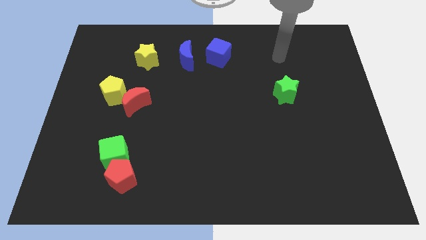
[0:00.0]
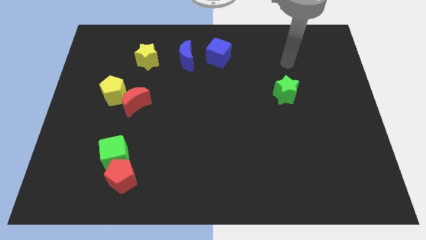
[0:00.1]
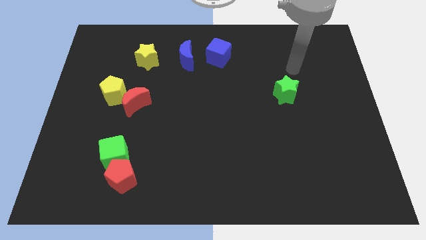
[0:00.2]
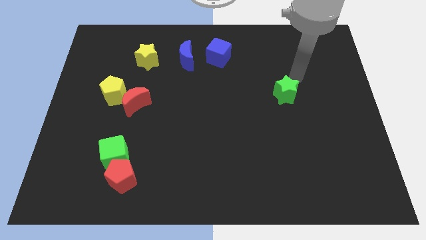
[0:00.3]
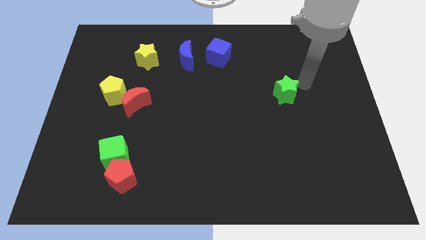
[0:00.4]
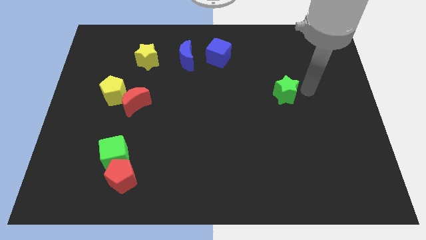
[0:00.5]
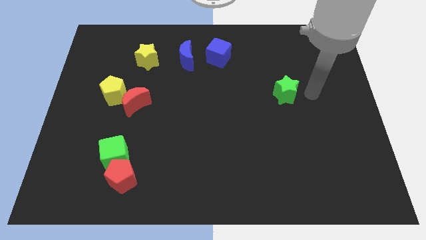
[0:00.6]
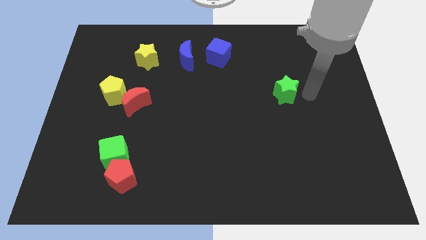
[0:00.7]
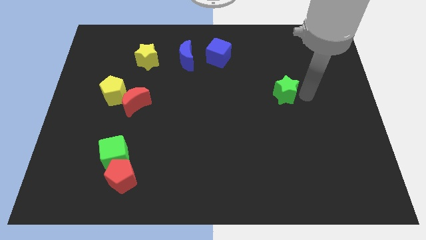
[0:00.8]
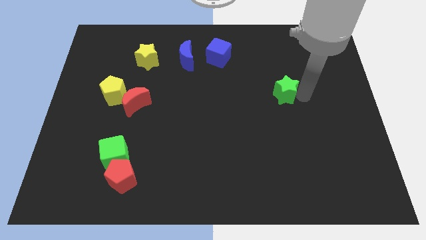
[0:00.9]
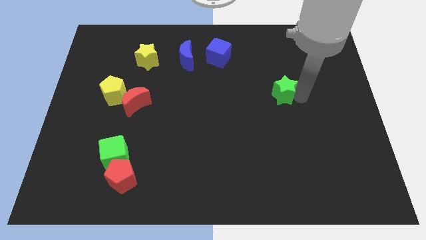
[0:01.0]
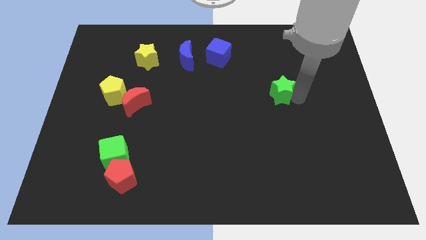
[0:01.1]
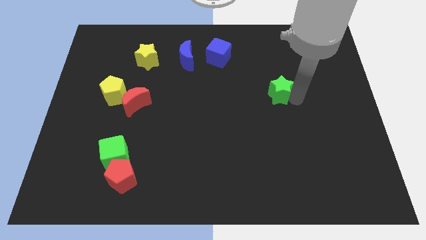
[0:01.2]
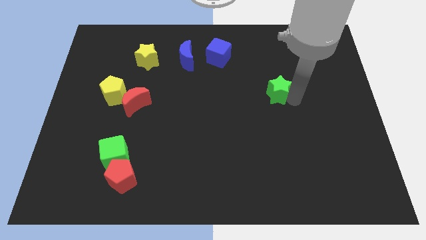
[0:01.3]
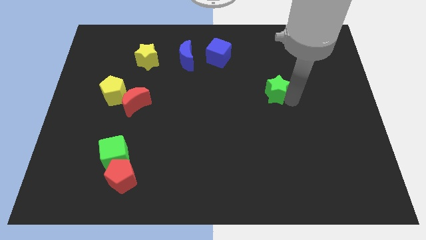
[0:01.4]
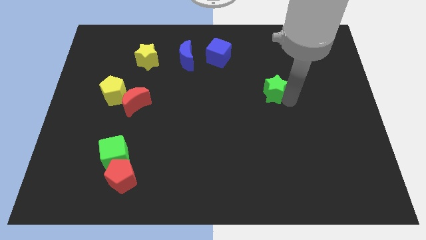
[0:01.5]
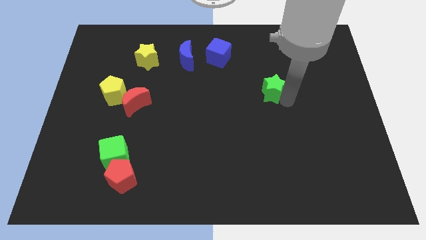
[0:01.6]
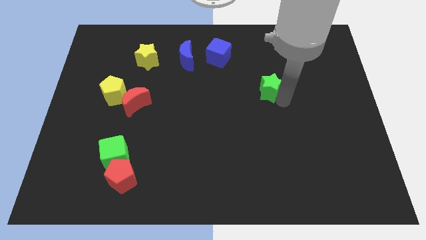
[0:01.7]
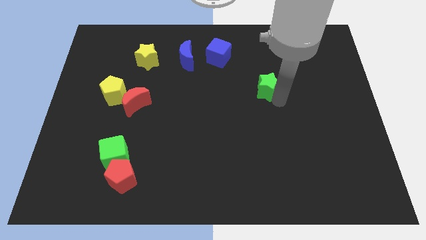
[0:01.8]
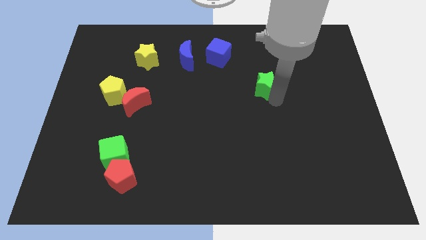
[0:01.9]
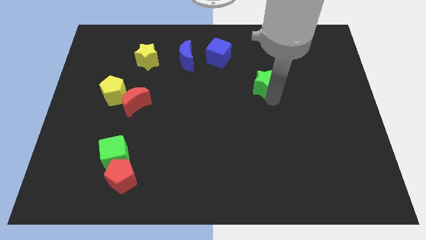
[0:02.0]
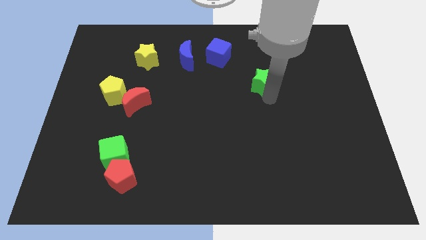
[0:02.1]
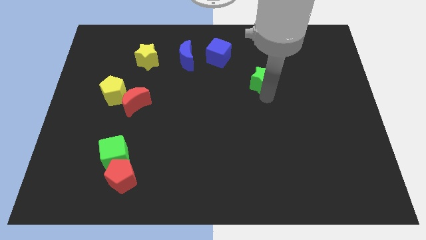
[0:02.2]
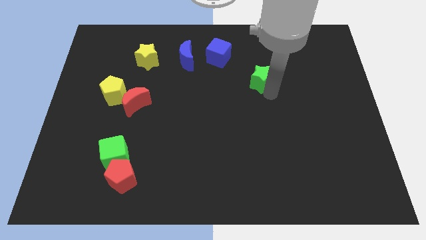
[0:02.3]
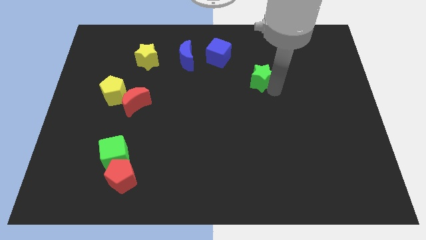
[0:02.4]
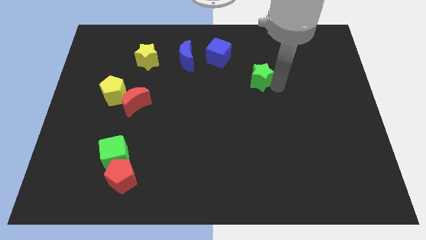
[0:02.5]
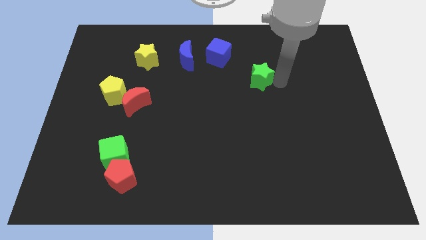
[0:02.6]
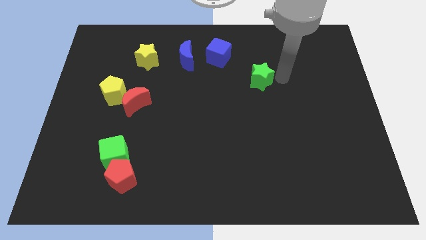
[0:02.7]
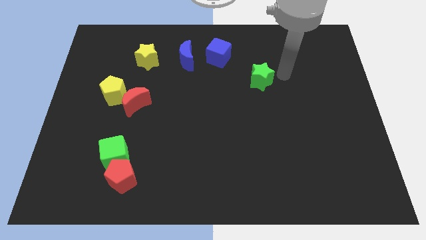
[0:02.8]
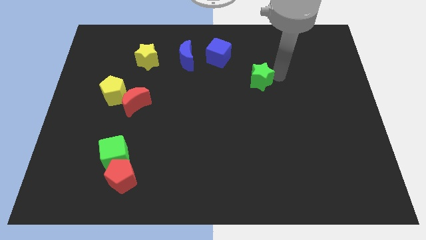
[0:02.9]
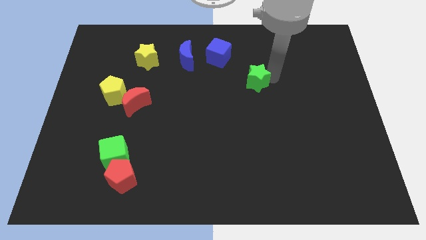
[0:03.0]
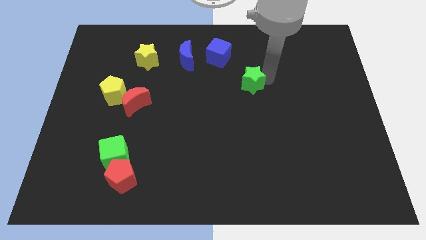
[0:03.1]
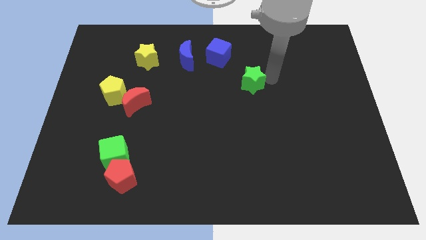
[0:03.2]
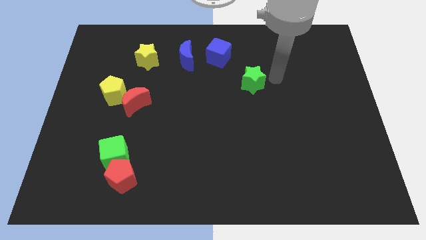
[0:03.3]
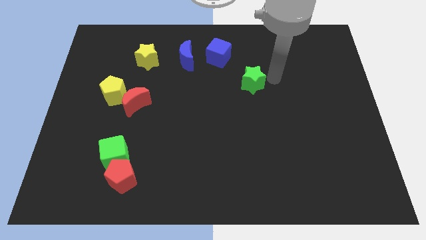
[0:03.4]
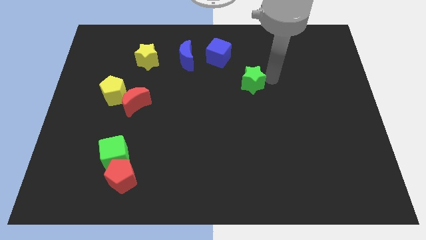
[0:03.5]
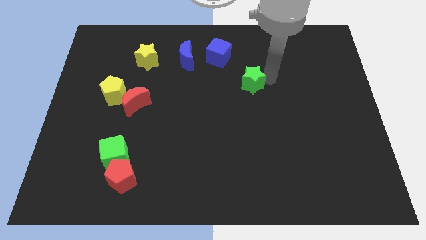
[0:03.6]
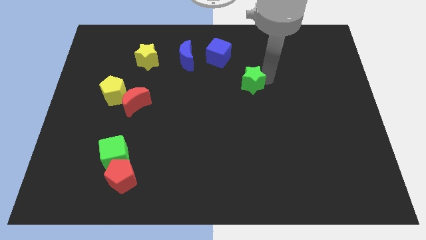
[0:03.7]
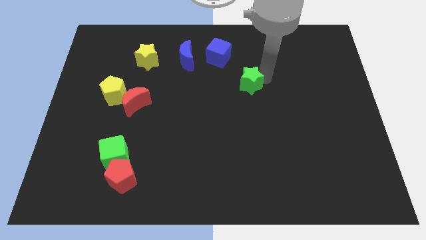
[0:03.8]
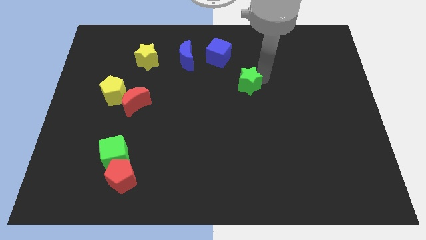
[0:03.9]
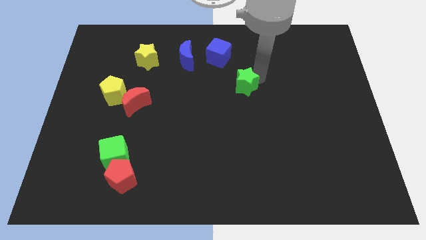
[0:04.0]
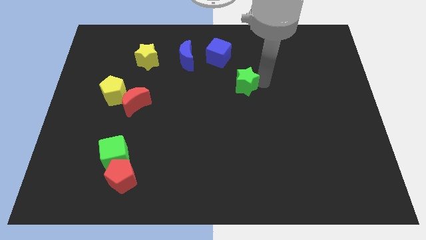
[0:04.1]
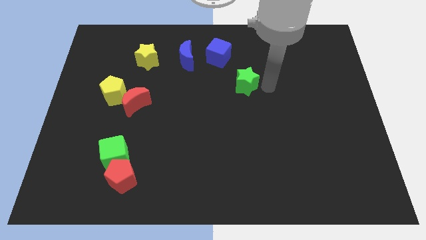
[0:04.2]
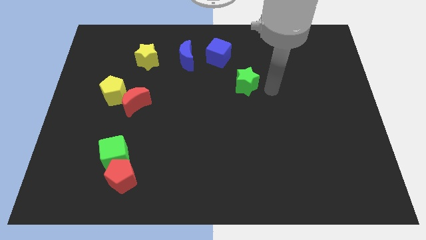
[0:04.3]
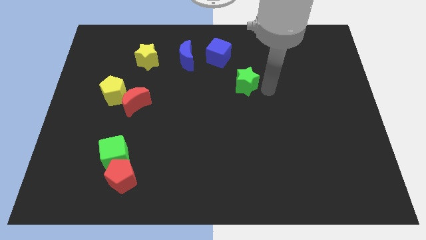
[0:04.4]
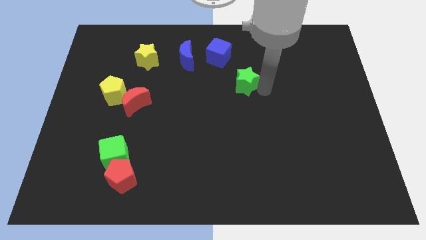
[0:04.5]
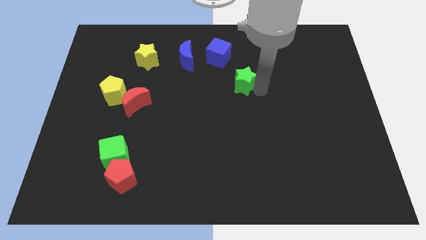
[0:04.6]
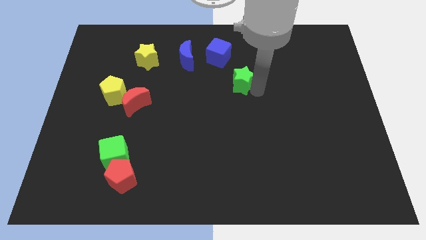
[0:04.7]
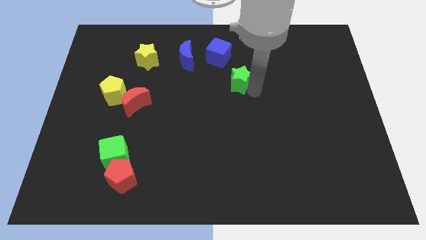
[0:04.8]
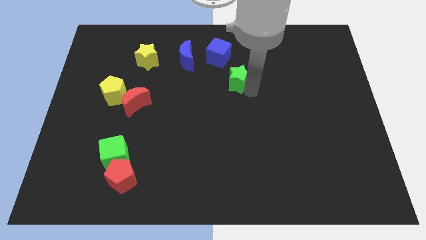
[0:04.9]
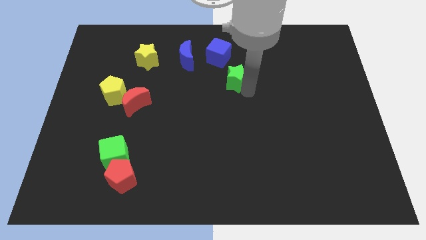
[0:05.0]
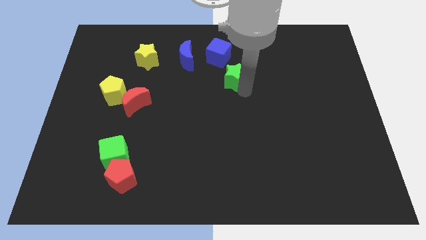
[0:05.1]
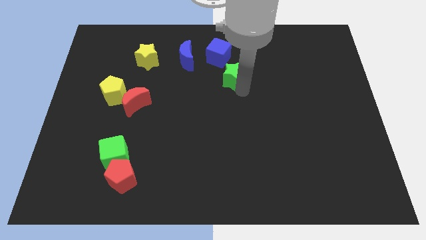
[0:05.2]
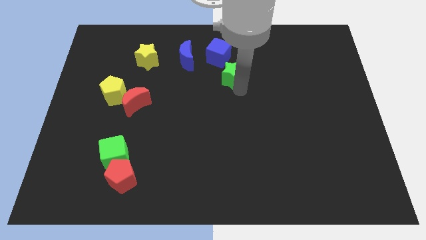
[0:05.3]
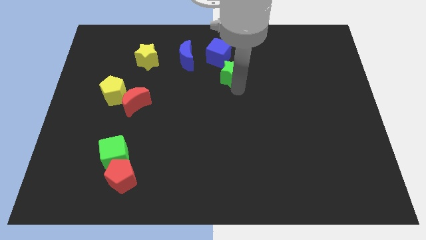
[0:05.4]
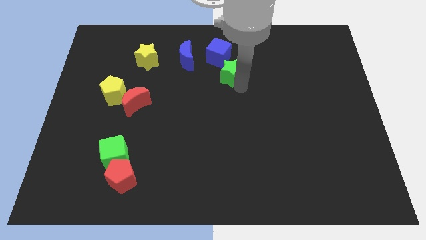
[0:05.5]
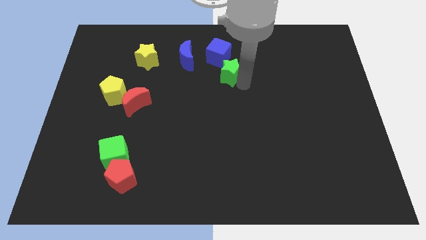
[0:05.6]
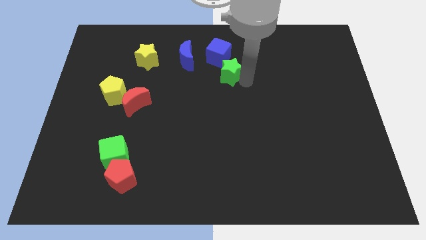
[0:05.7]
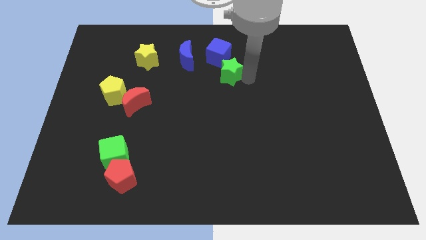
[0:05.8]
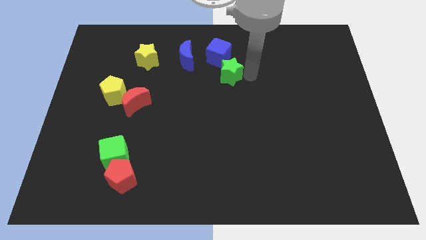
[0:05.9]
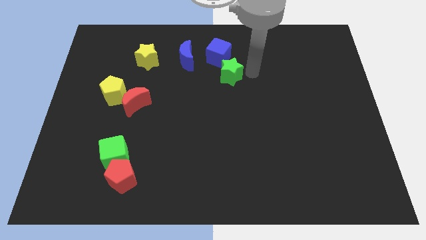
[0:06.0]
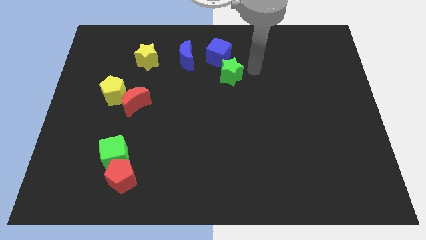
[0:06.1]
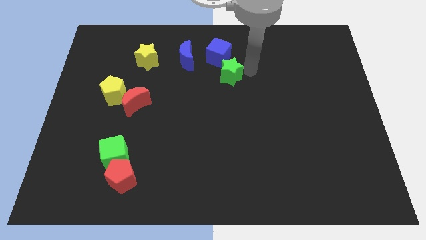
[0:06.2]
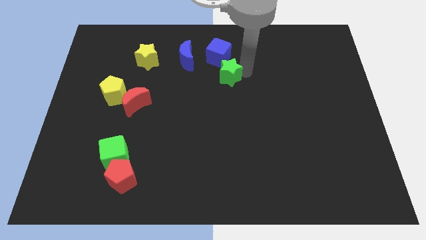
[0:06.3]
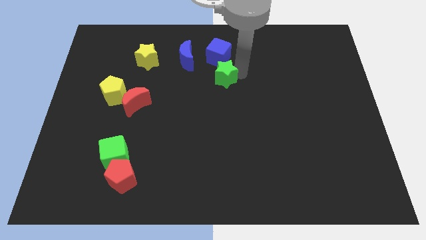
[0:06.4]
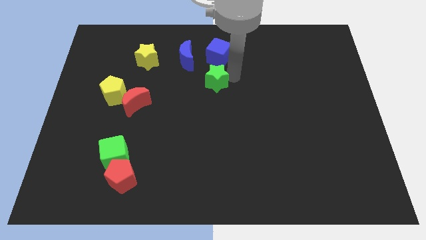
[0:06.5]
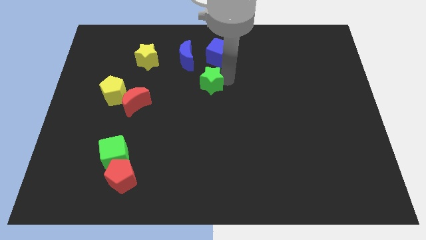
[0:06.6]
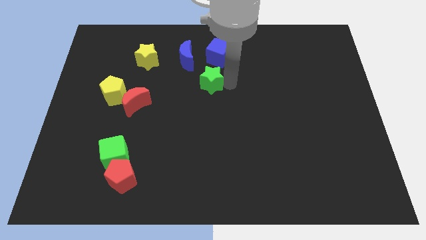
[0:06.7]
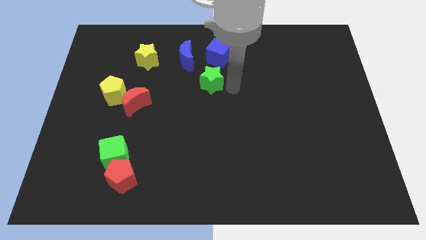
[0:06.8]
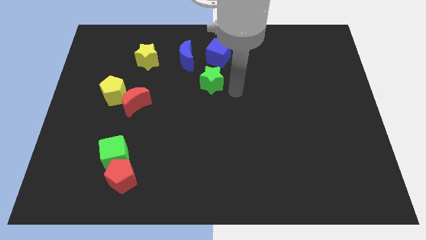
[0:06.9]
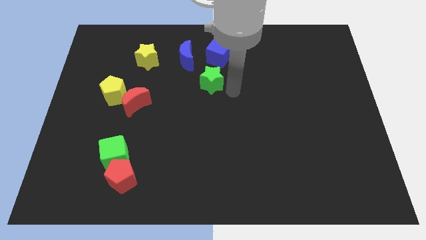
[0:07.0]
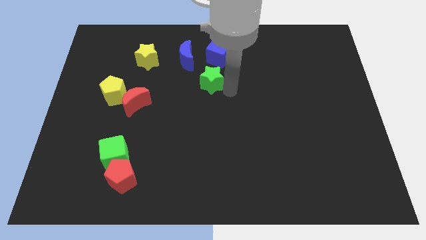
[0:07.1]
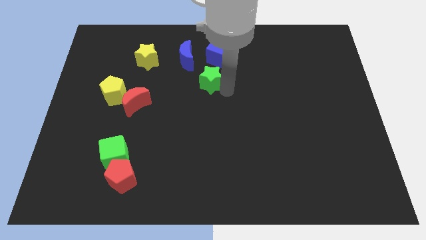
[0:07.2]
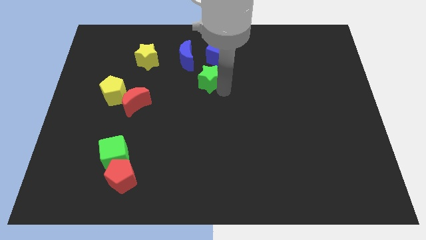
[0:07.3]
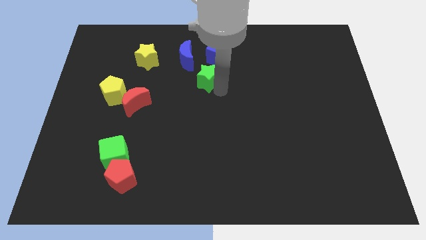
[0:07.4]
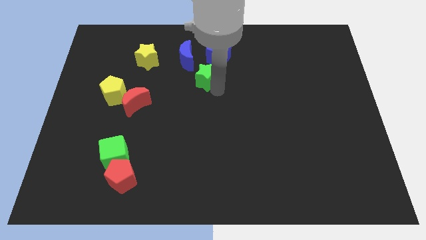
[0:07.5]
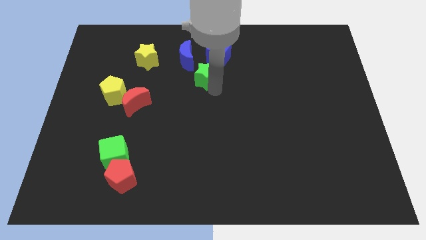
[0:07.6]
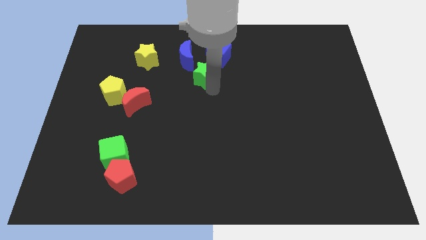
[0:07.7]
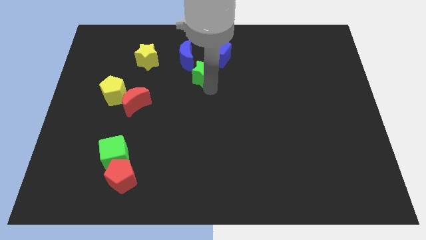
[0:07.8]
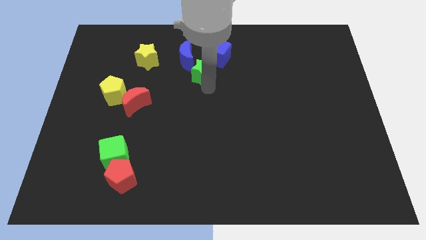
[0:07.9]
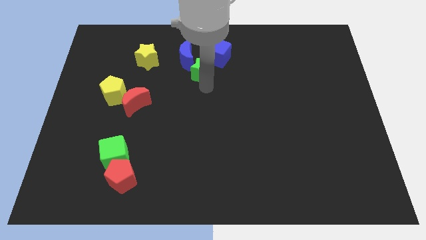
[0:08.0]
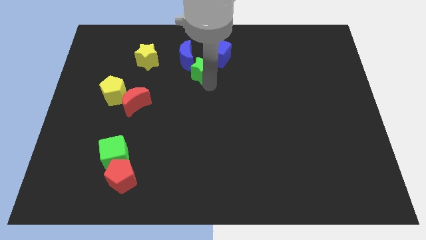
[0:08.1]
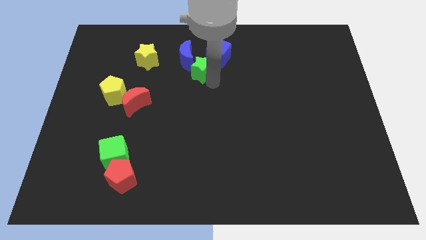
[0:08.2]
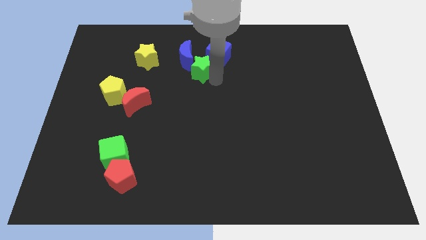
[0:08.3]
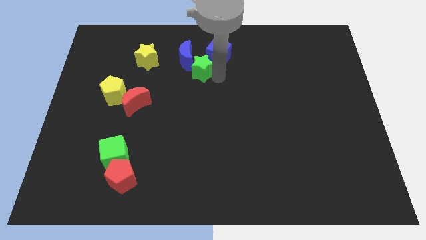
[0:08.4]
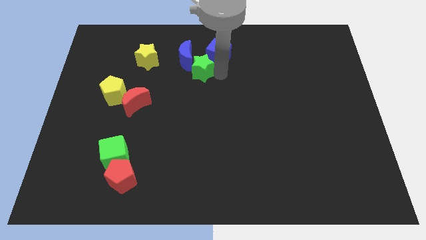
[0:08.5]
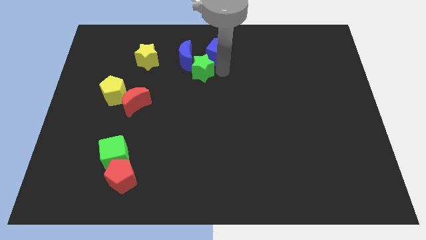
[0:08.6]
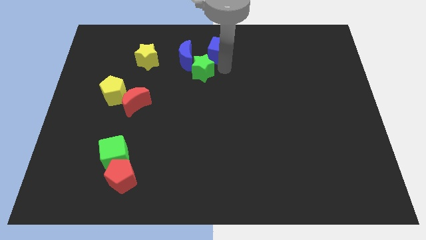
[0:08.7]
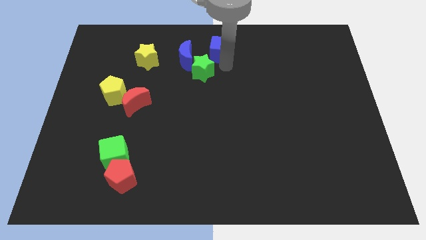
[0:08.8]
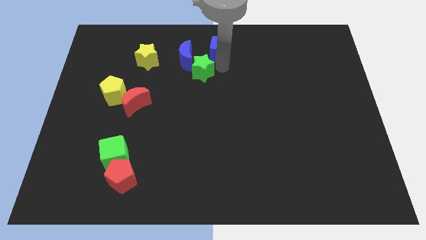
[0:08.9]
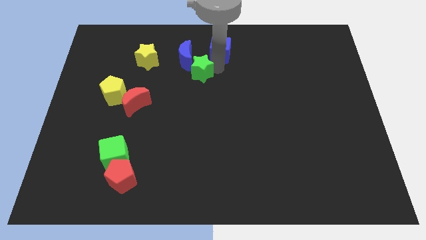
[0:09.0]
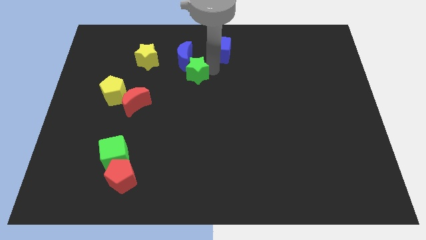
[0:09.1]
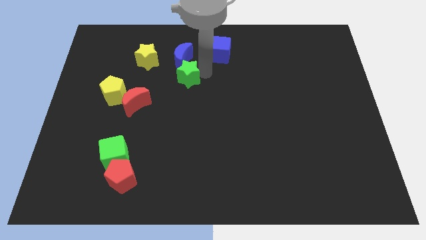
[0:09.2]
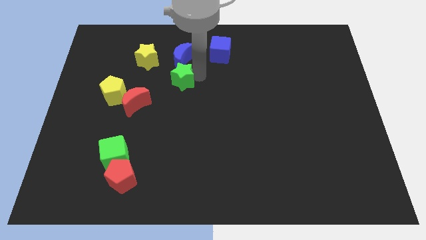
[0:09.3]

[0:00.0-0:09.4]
put the green star to the bottom right of the yellow star
